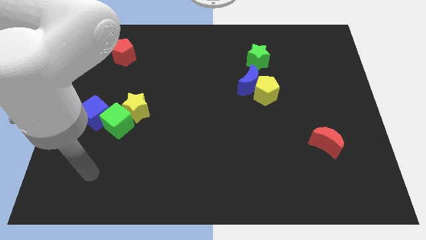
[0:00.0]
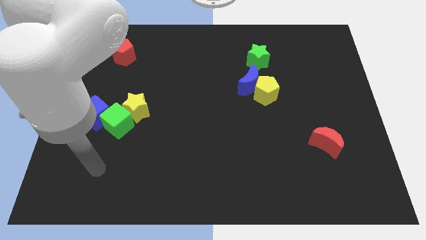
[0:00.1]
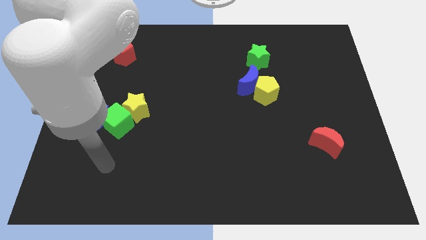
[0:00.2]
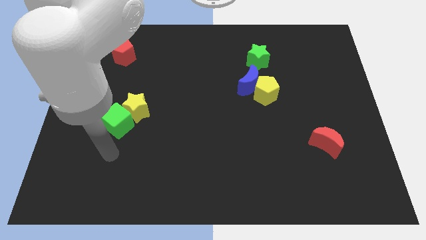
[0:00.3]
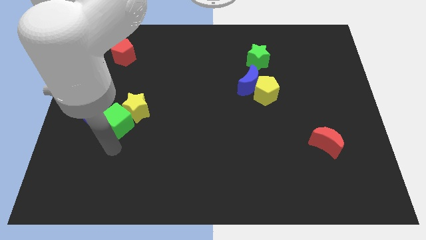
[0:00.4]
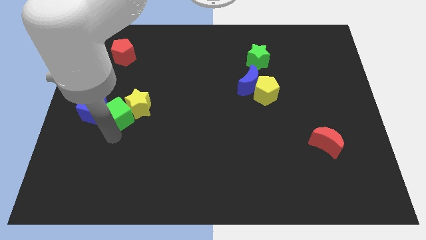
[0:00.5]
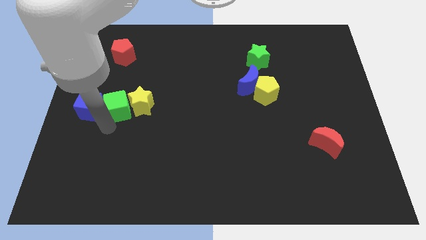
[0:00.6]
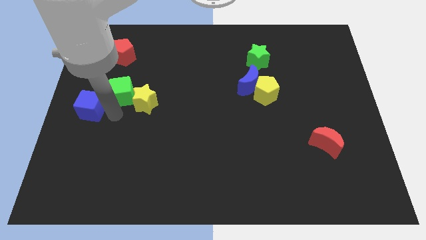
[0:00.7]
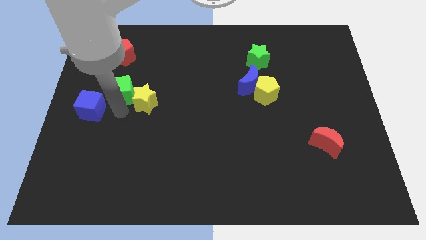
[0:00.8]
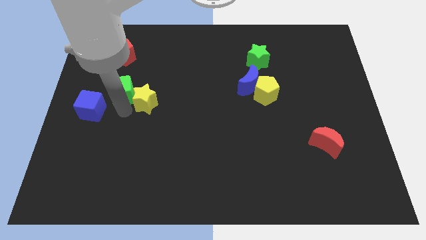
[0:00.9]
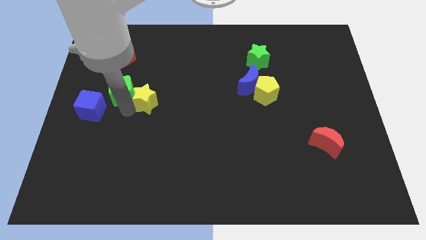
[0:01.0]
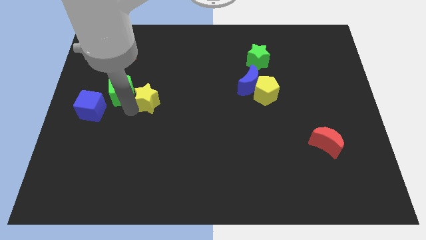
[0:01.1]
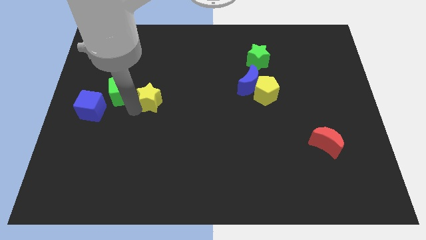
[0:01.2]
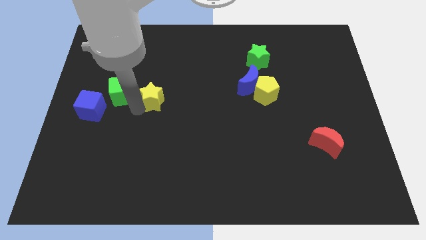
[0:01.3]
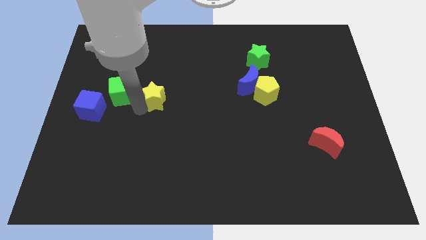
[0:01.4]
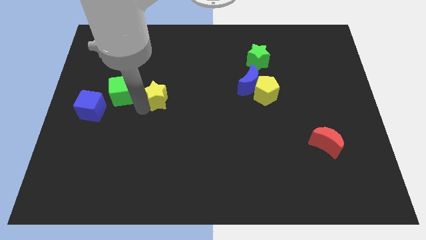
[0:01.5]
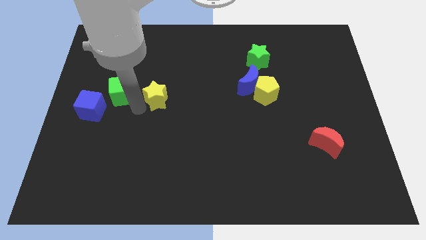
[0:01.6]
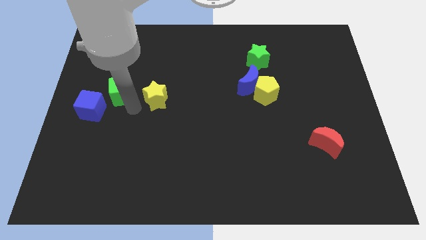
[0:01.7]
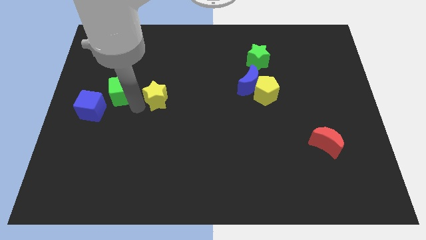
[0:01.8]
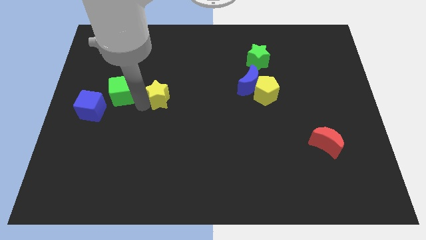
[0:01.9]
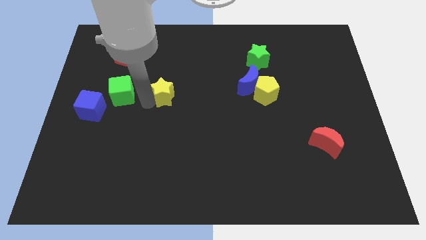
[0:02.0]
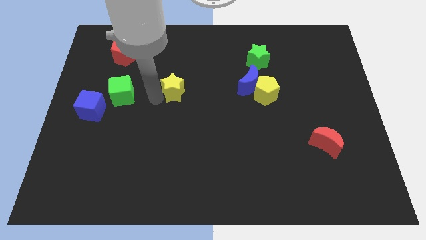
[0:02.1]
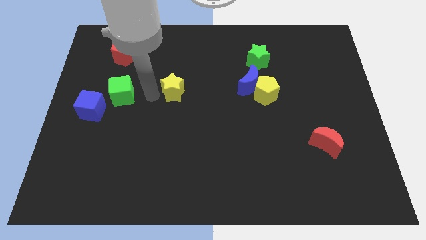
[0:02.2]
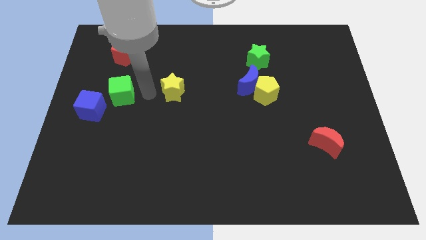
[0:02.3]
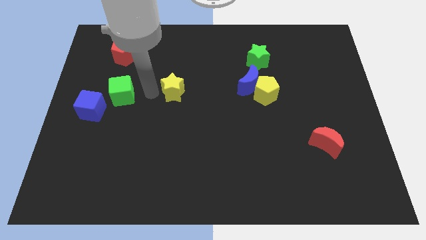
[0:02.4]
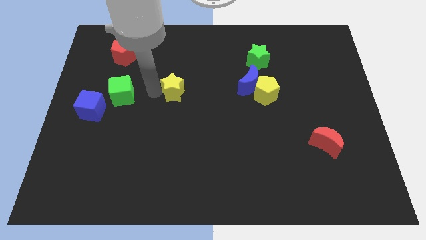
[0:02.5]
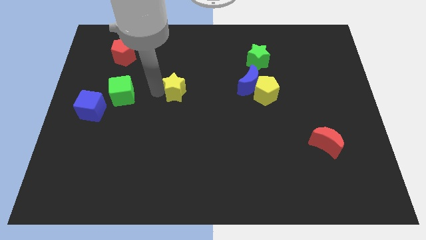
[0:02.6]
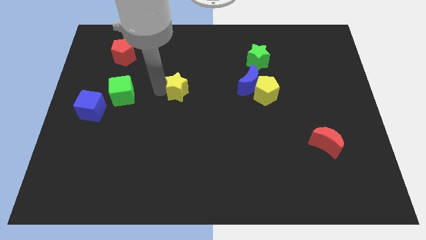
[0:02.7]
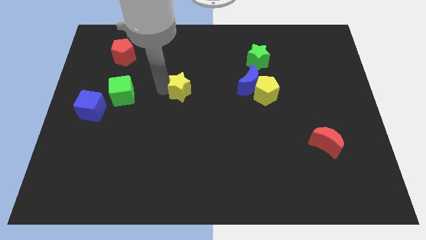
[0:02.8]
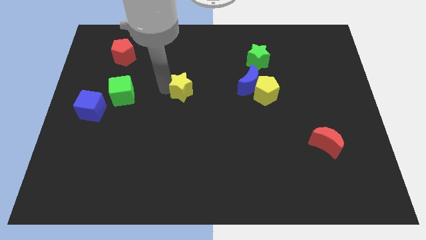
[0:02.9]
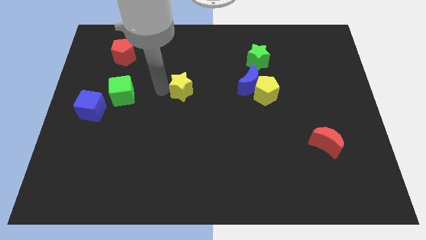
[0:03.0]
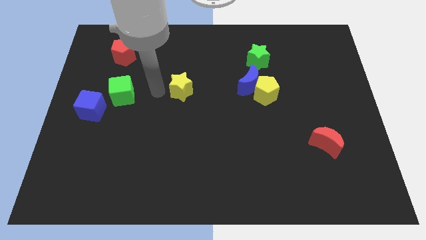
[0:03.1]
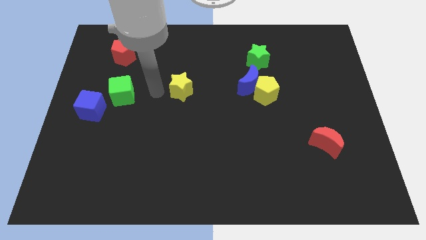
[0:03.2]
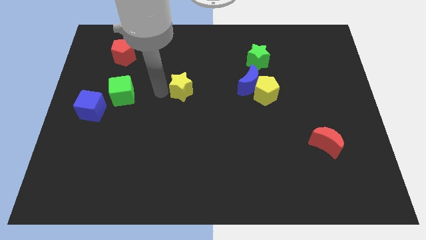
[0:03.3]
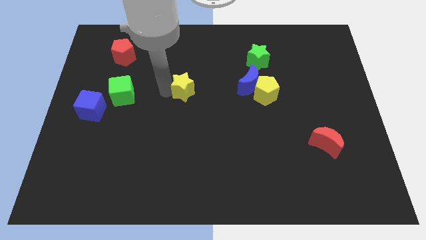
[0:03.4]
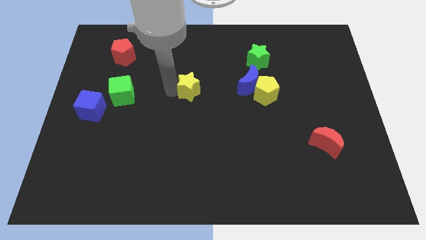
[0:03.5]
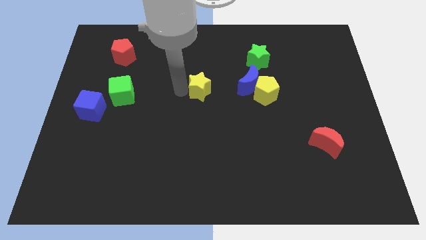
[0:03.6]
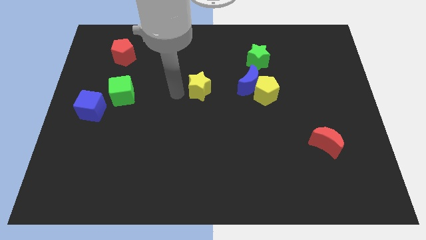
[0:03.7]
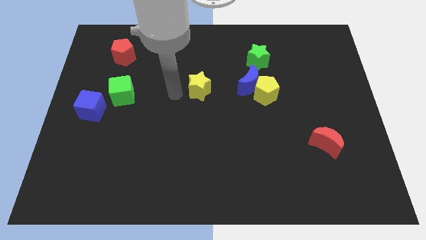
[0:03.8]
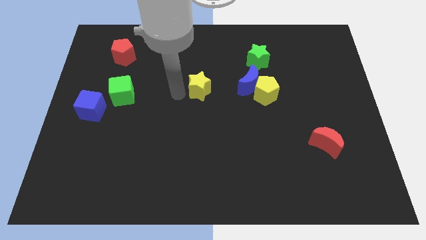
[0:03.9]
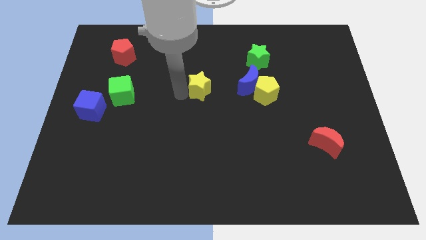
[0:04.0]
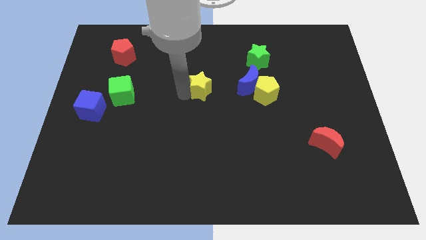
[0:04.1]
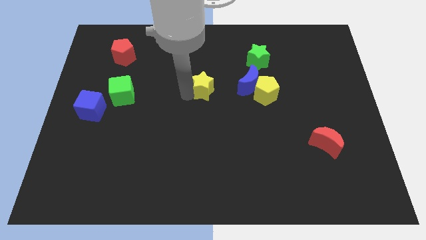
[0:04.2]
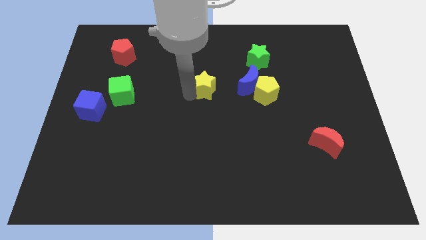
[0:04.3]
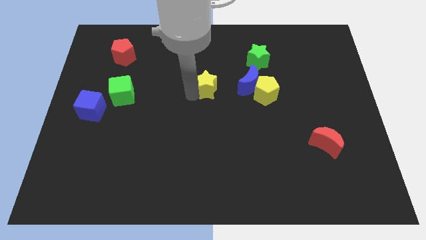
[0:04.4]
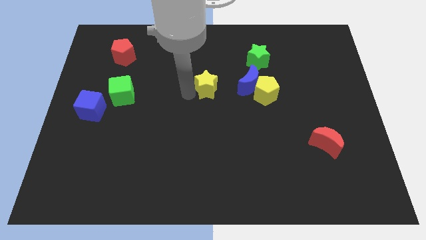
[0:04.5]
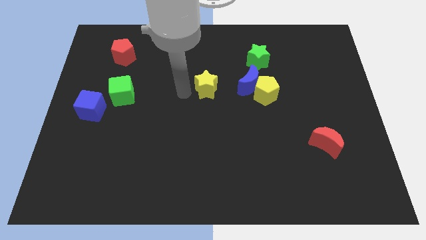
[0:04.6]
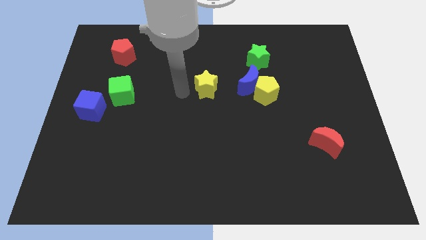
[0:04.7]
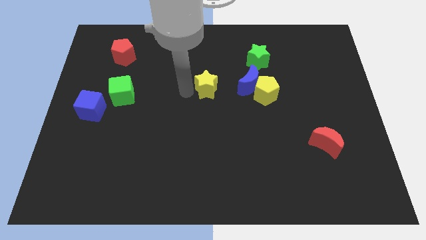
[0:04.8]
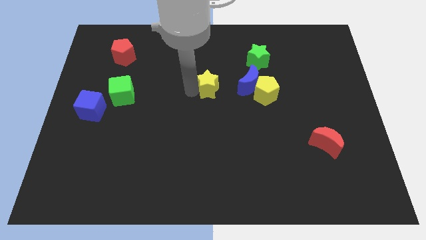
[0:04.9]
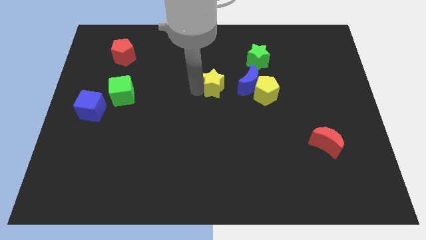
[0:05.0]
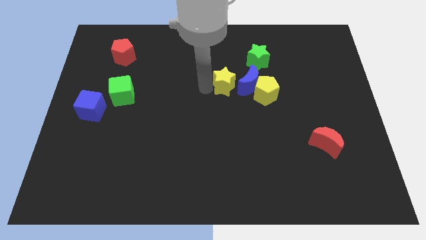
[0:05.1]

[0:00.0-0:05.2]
push the yellow star next to the blue moon

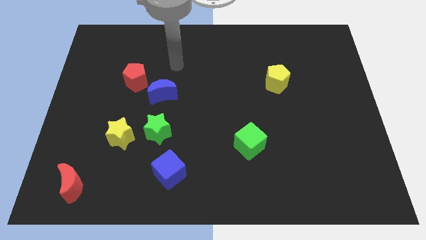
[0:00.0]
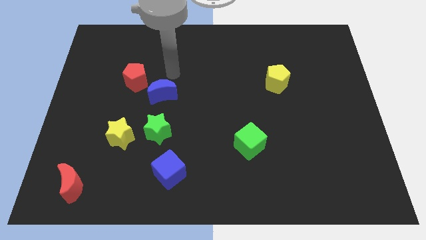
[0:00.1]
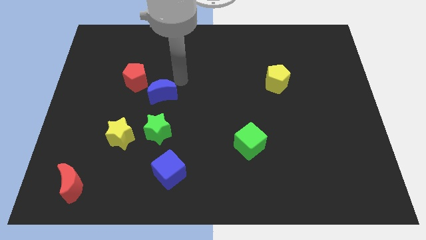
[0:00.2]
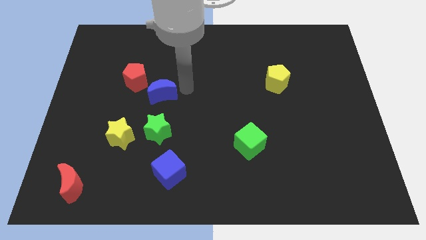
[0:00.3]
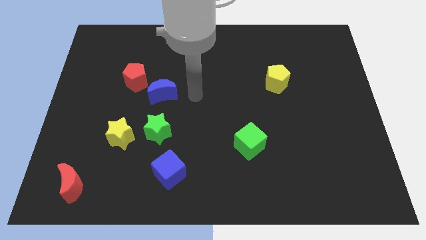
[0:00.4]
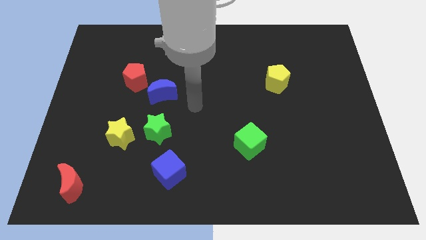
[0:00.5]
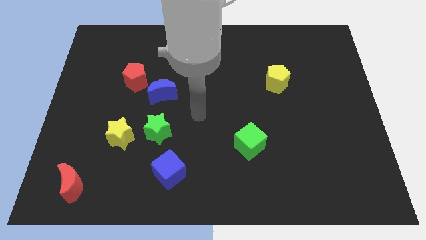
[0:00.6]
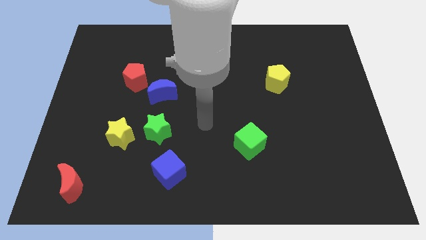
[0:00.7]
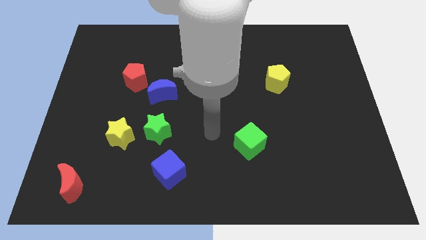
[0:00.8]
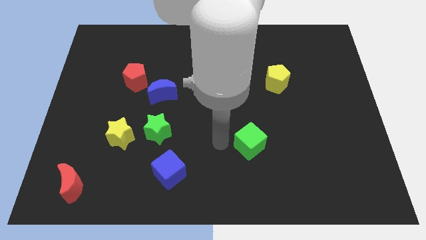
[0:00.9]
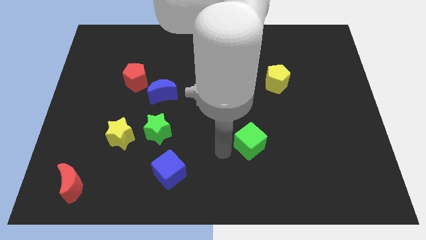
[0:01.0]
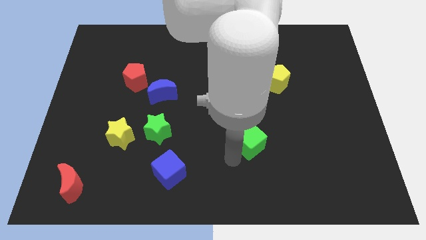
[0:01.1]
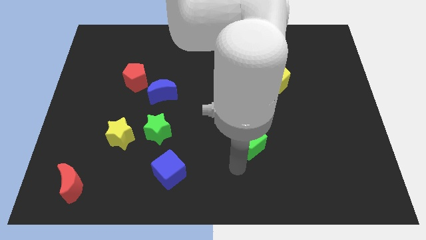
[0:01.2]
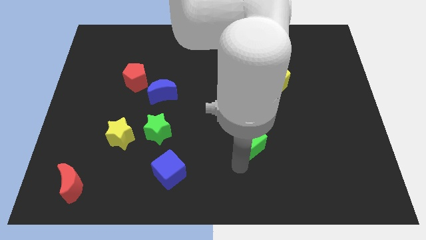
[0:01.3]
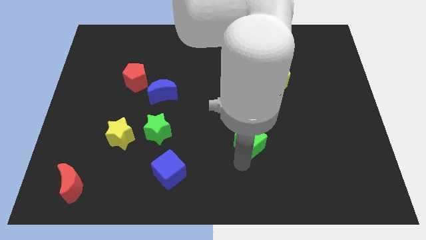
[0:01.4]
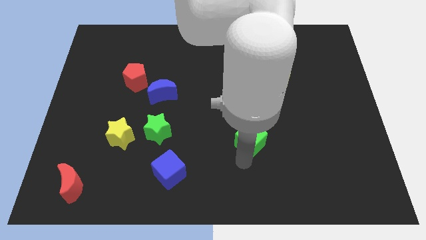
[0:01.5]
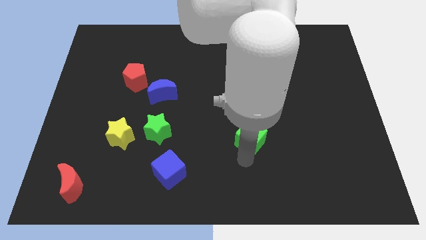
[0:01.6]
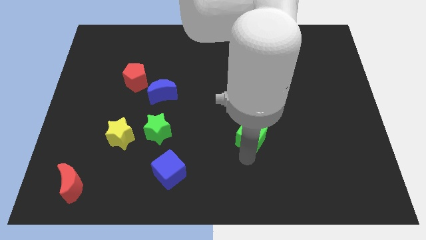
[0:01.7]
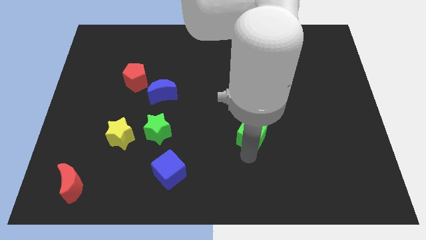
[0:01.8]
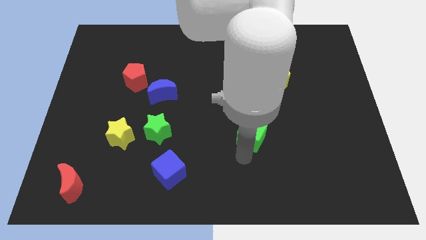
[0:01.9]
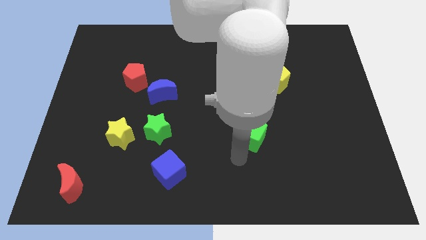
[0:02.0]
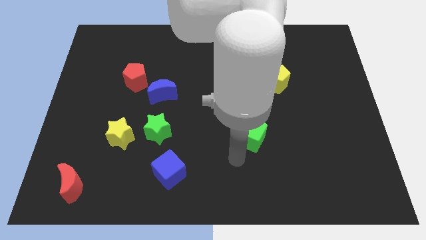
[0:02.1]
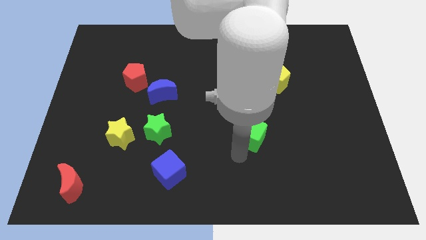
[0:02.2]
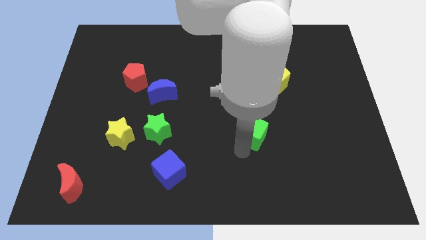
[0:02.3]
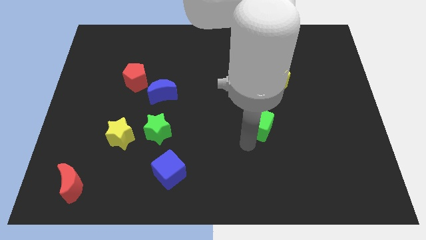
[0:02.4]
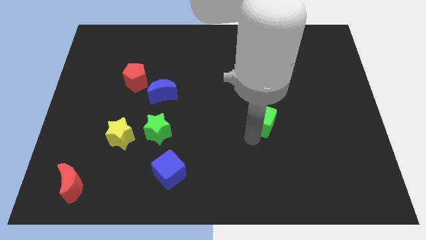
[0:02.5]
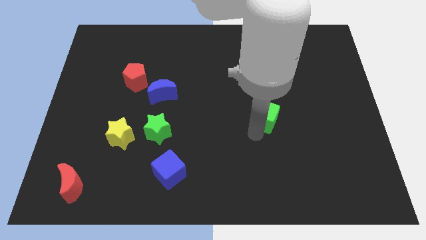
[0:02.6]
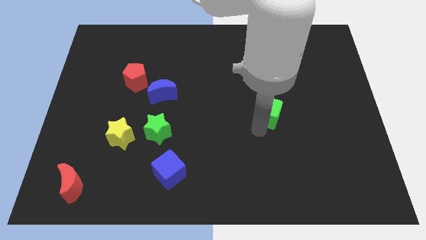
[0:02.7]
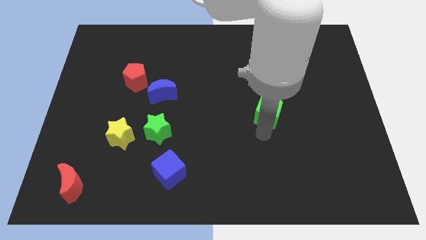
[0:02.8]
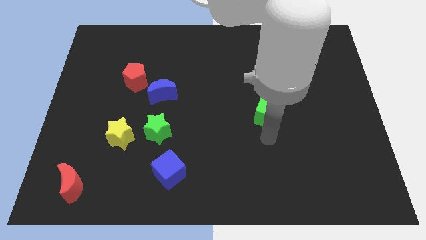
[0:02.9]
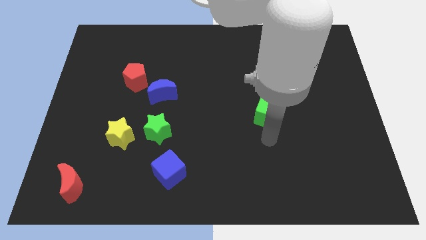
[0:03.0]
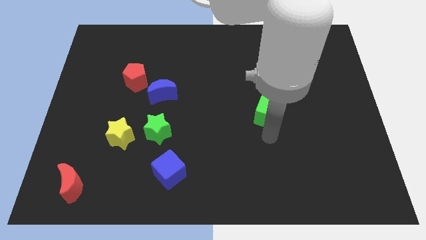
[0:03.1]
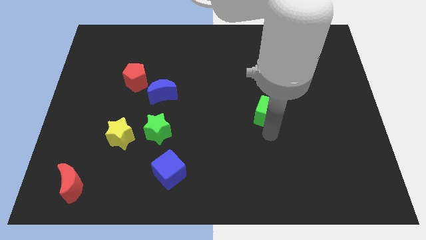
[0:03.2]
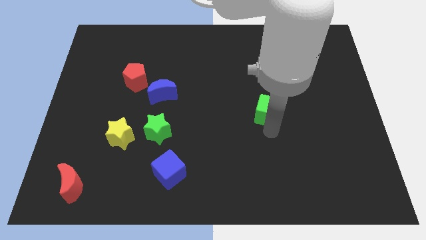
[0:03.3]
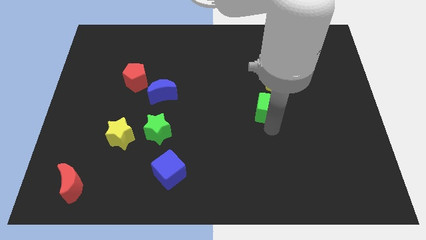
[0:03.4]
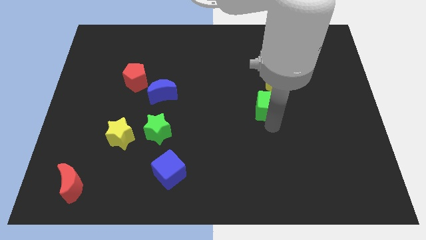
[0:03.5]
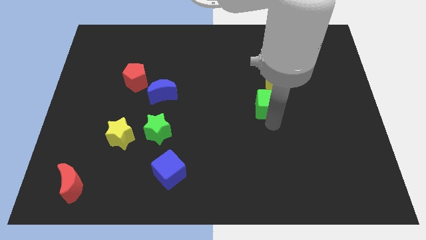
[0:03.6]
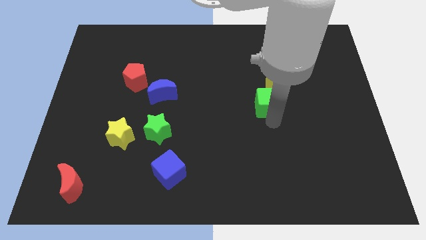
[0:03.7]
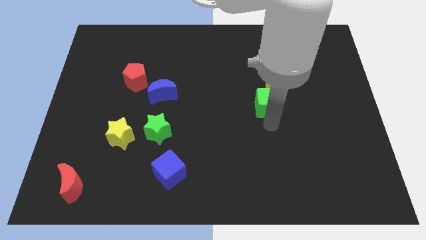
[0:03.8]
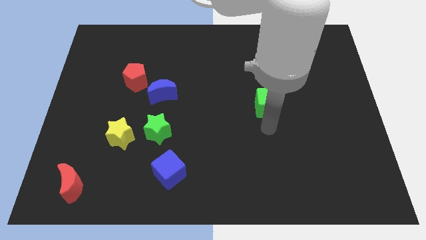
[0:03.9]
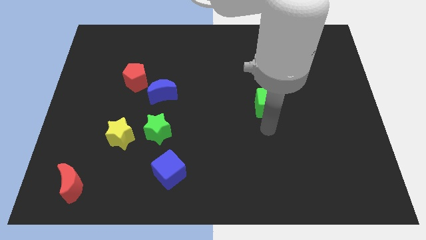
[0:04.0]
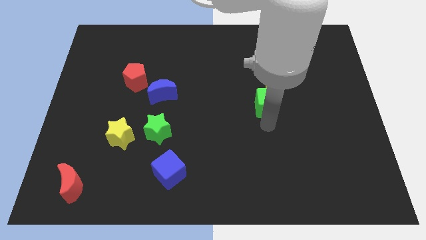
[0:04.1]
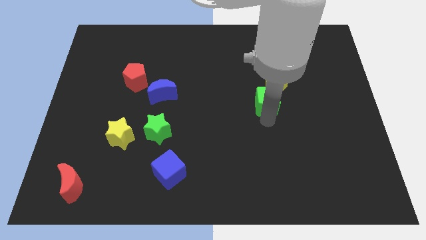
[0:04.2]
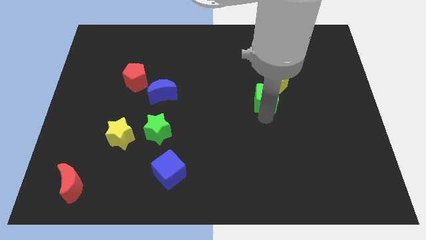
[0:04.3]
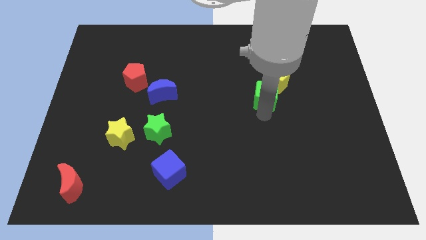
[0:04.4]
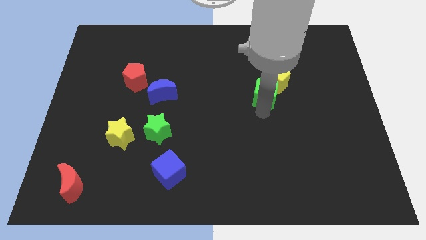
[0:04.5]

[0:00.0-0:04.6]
slide the green cube towards the yellow pentagon
